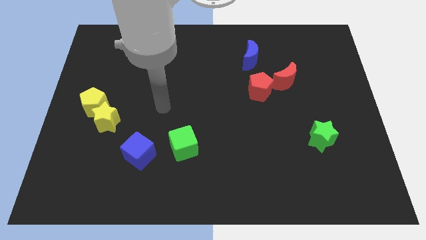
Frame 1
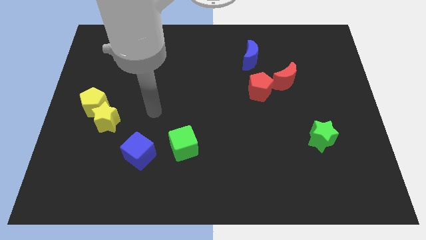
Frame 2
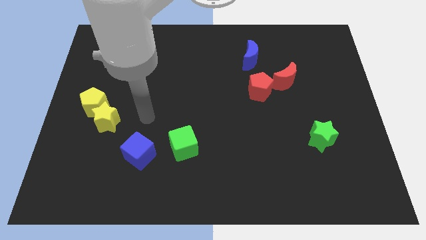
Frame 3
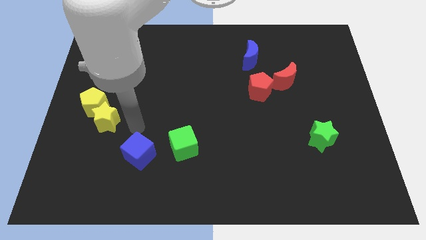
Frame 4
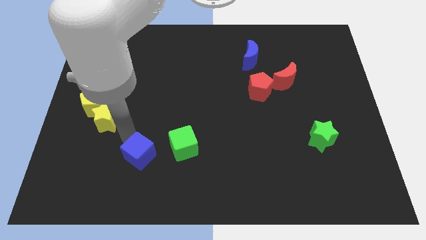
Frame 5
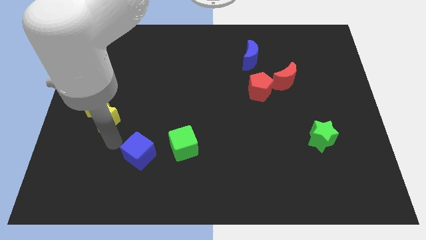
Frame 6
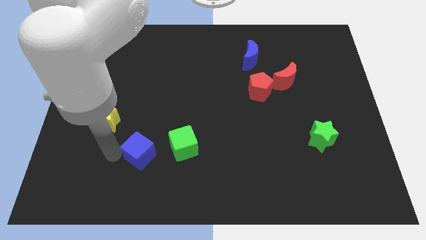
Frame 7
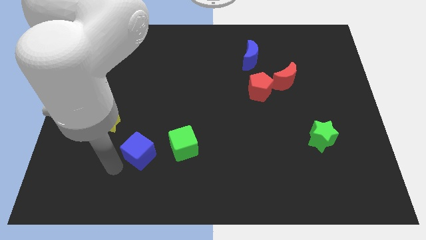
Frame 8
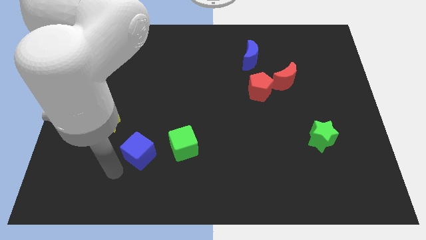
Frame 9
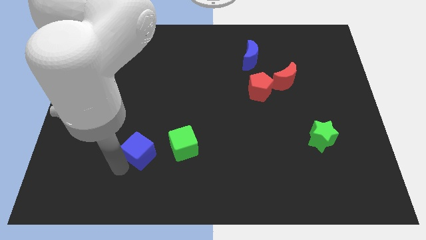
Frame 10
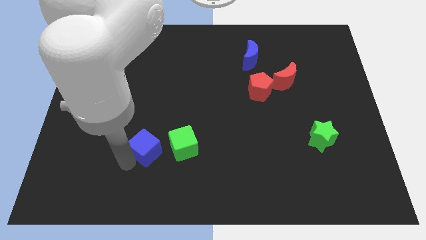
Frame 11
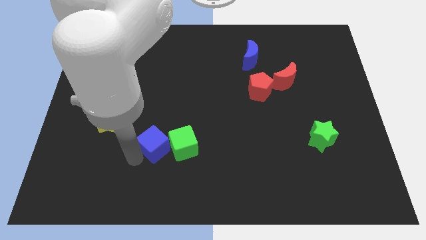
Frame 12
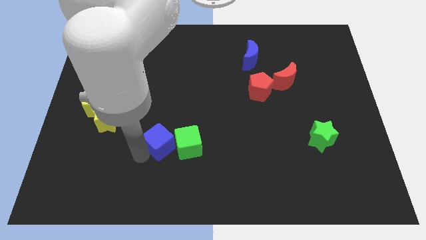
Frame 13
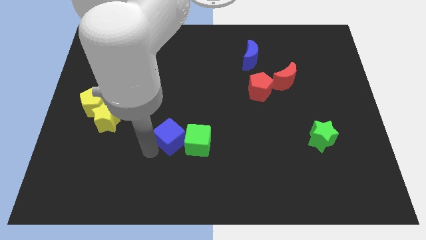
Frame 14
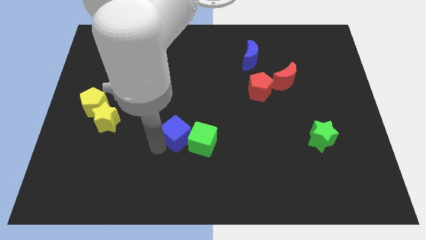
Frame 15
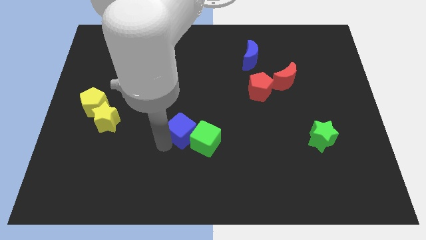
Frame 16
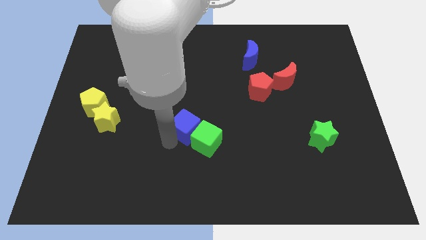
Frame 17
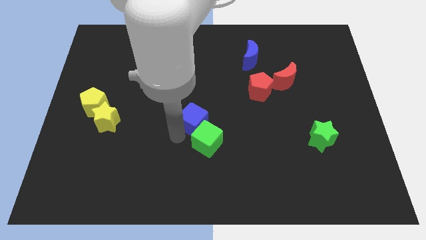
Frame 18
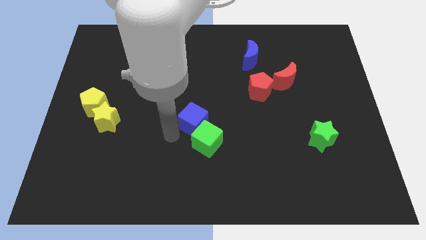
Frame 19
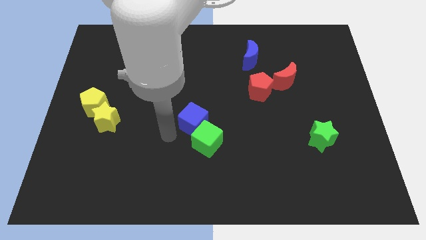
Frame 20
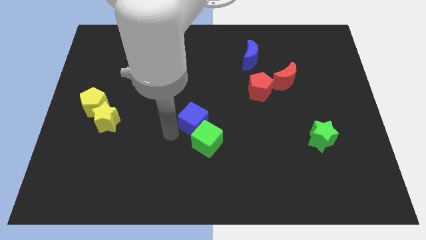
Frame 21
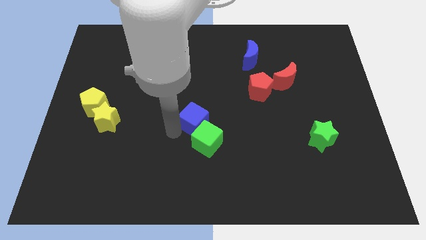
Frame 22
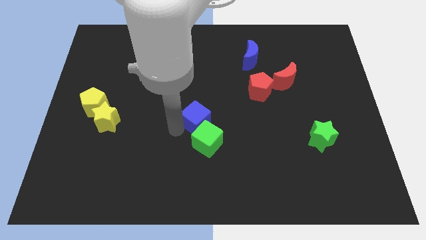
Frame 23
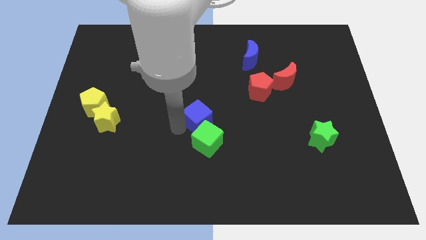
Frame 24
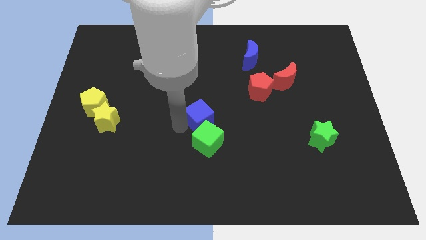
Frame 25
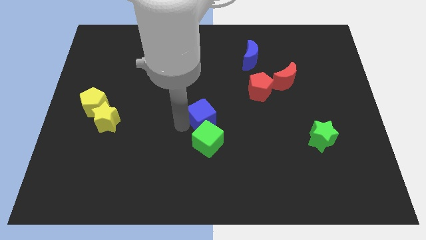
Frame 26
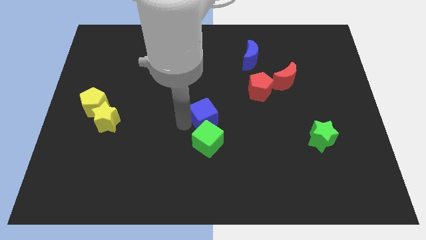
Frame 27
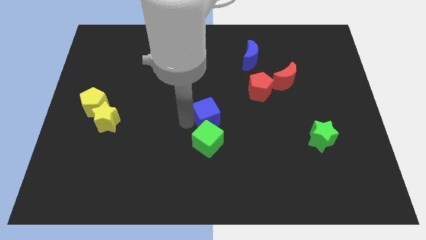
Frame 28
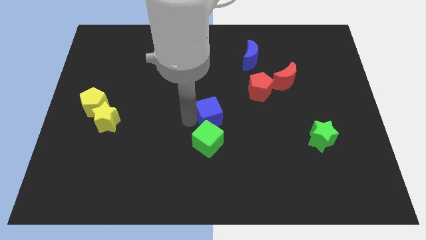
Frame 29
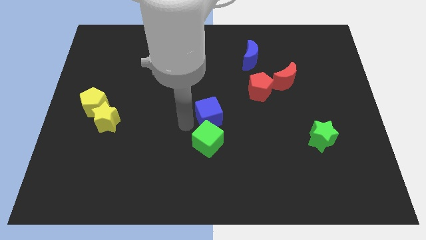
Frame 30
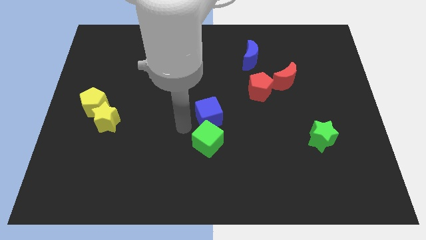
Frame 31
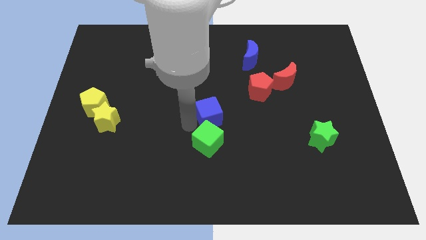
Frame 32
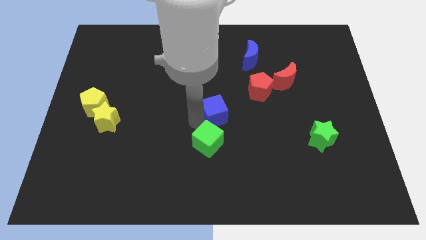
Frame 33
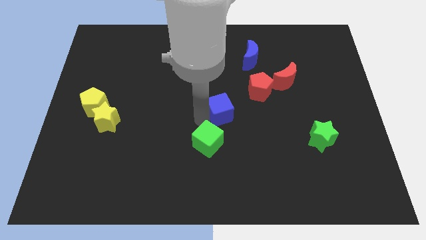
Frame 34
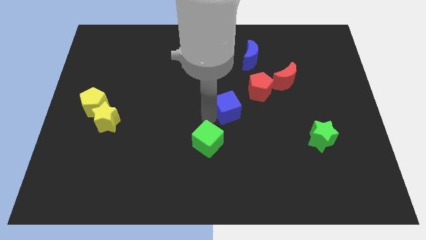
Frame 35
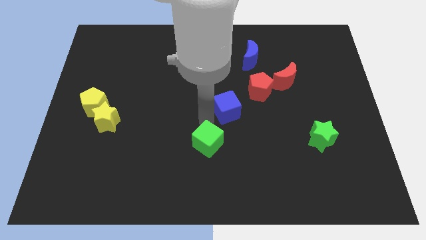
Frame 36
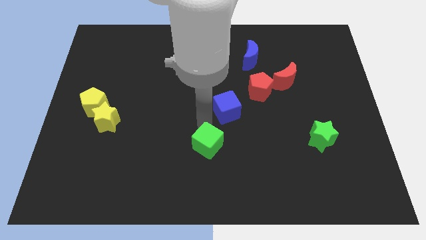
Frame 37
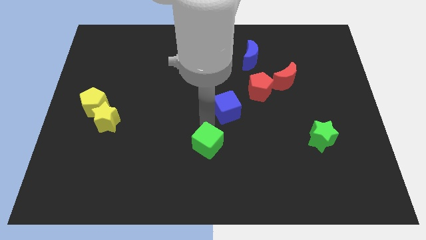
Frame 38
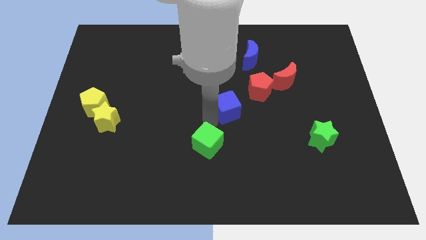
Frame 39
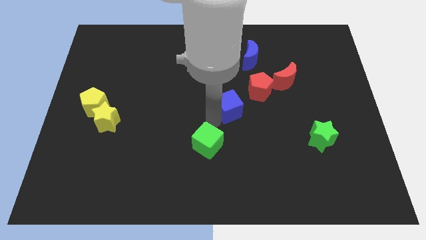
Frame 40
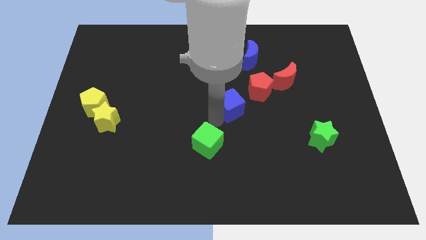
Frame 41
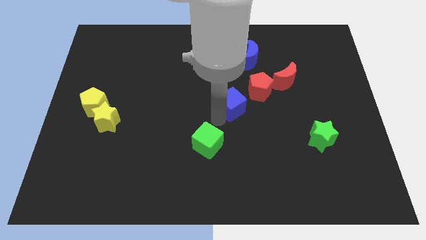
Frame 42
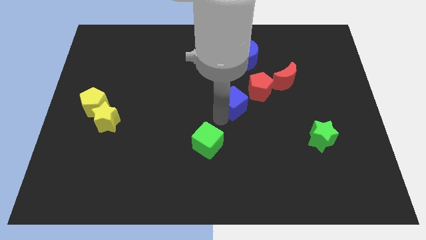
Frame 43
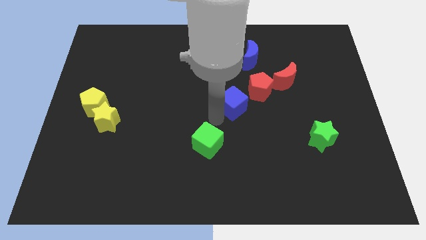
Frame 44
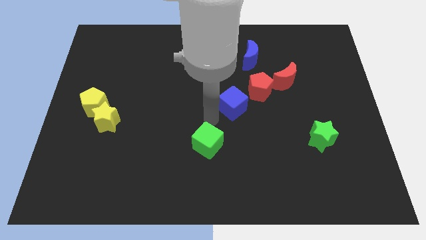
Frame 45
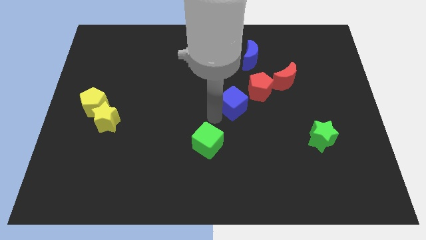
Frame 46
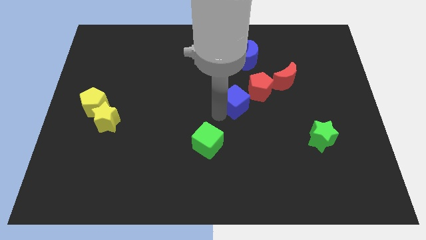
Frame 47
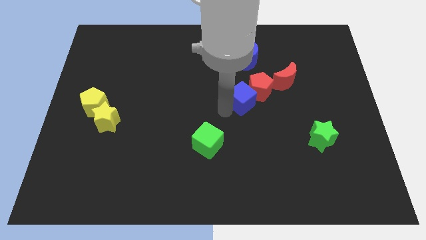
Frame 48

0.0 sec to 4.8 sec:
slide the blue cube towards the red pentagon

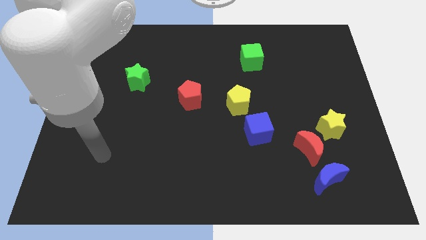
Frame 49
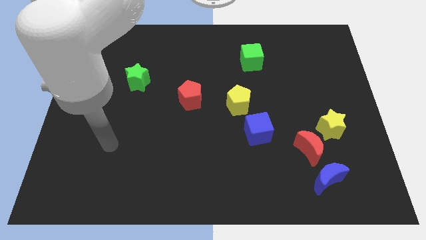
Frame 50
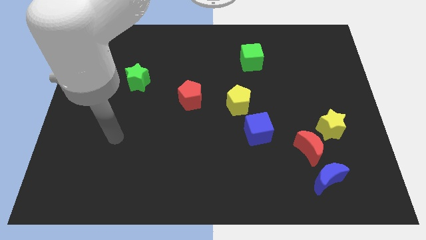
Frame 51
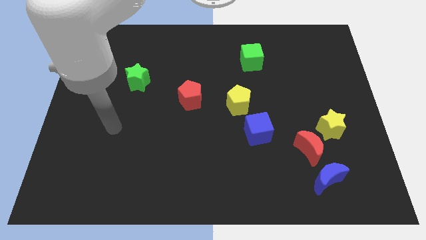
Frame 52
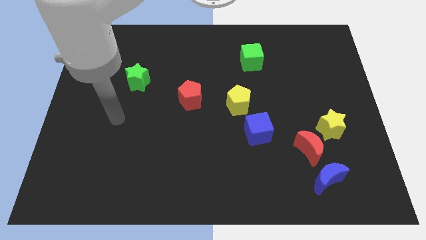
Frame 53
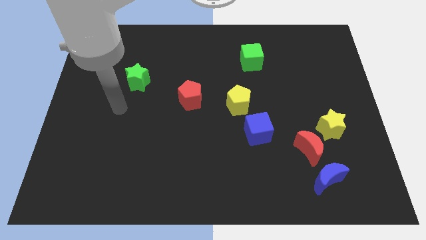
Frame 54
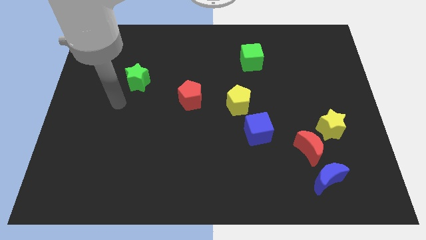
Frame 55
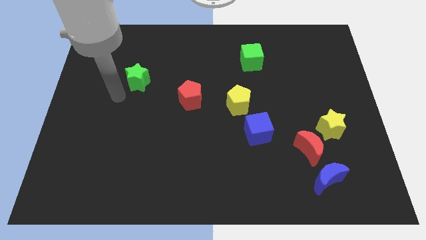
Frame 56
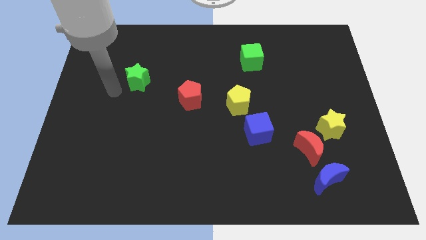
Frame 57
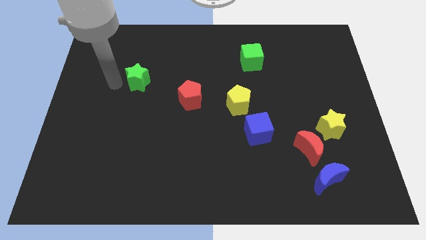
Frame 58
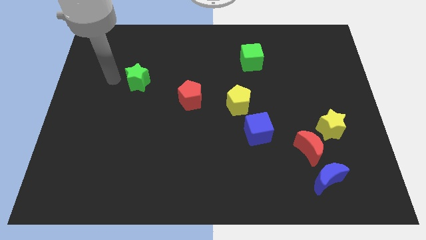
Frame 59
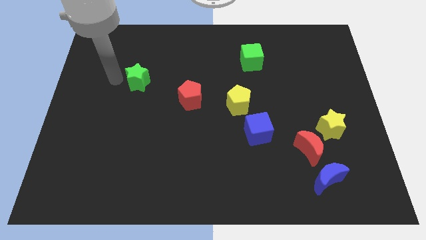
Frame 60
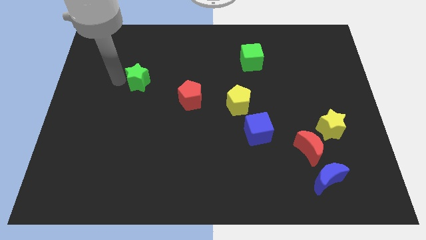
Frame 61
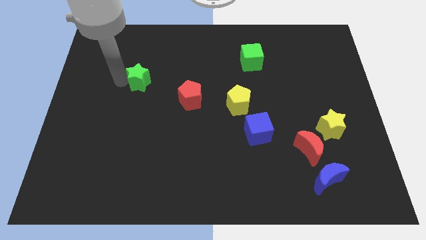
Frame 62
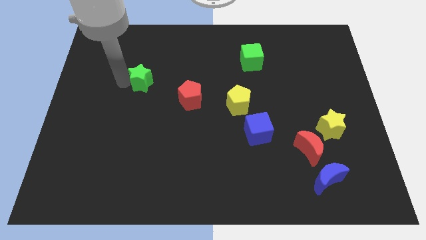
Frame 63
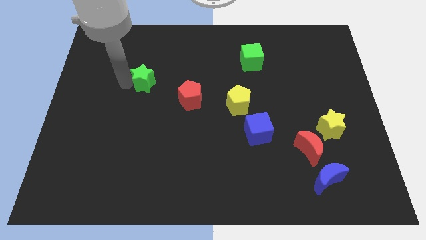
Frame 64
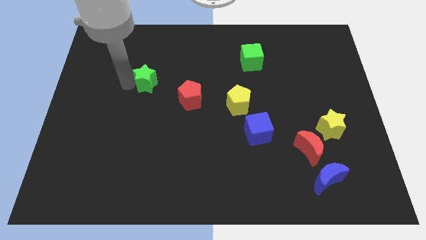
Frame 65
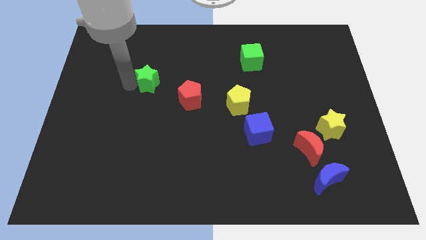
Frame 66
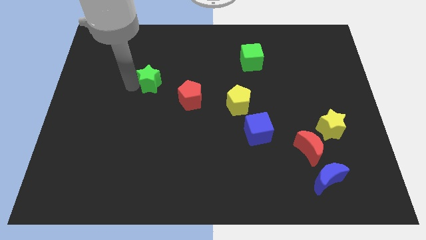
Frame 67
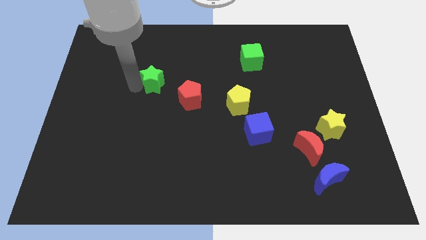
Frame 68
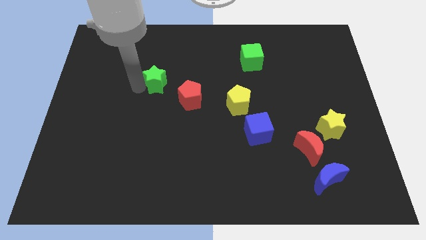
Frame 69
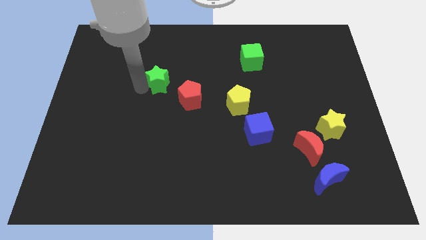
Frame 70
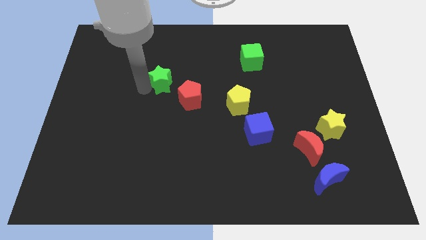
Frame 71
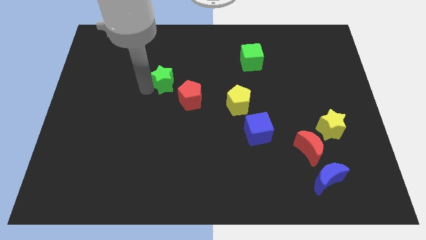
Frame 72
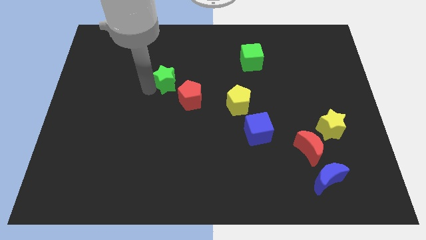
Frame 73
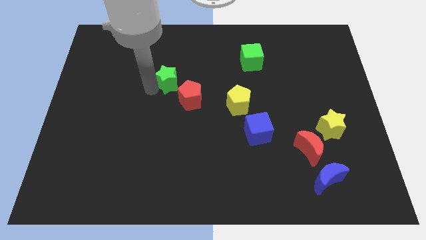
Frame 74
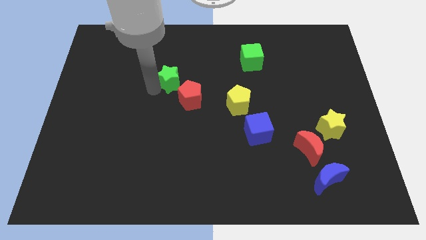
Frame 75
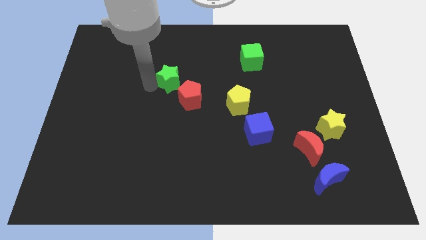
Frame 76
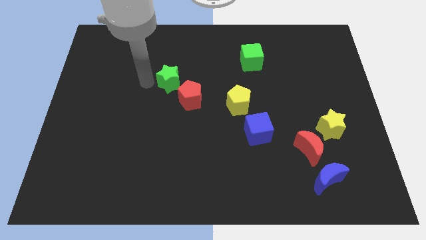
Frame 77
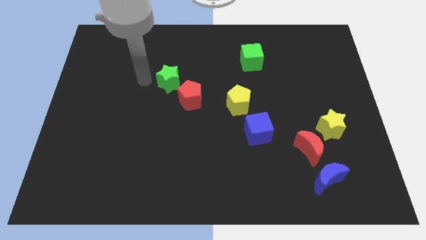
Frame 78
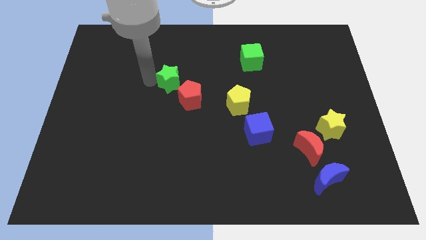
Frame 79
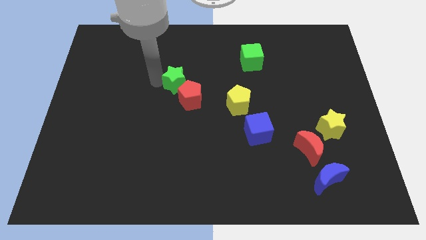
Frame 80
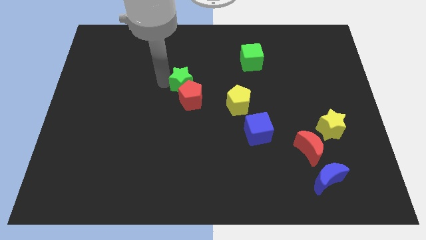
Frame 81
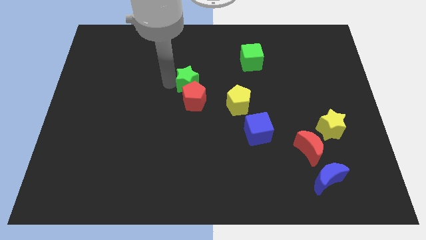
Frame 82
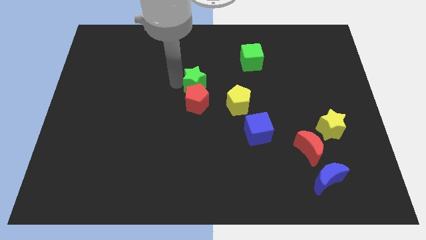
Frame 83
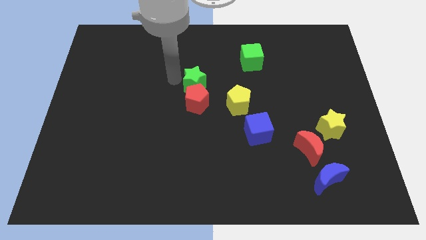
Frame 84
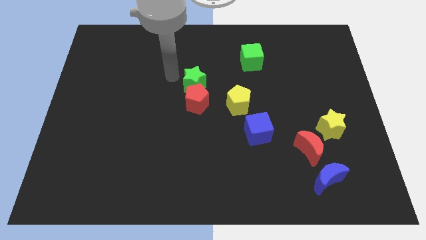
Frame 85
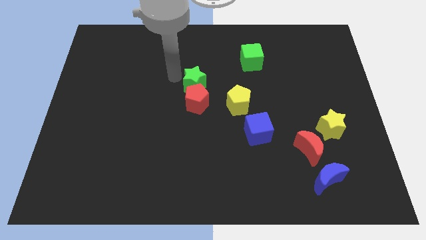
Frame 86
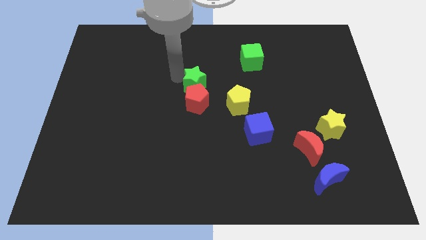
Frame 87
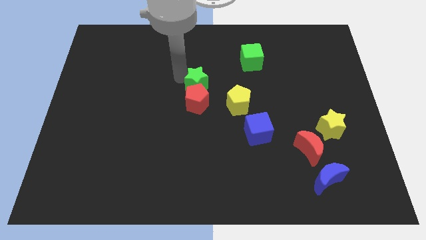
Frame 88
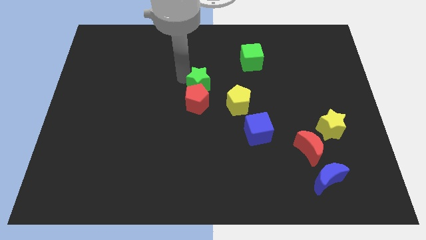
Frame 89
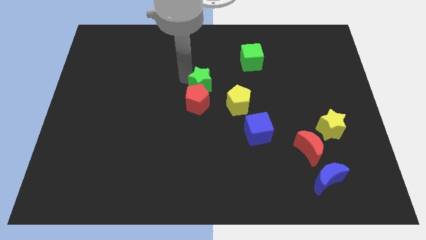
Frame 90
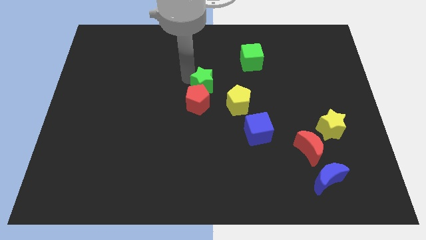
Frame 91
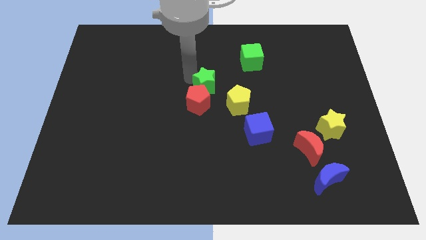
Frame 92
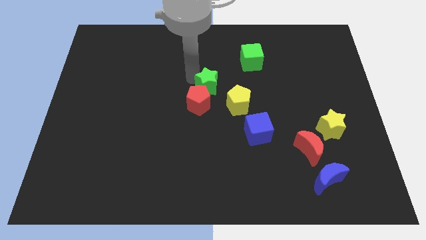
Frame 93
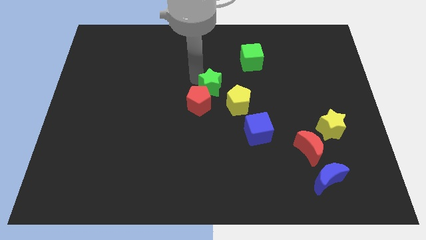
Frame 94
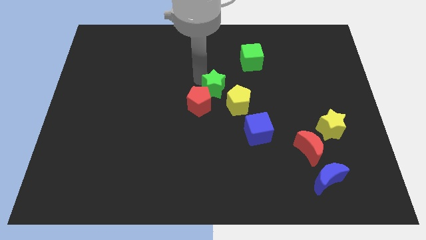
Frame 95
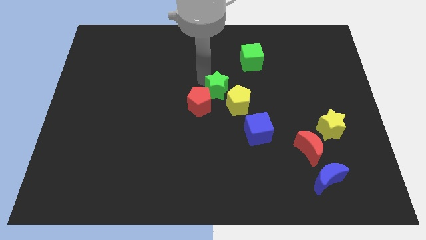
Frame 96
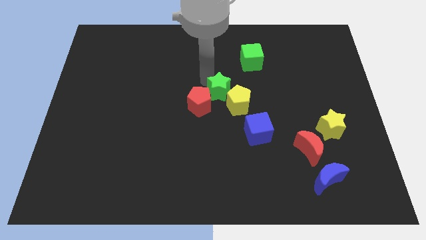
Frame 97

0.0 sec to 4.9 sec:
push the green star next to the yellow pentagon
